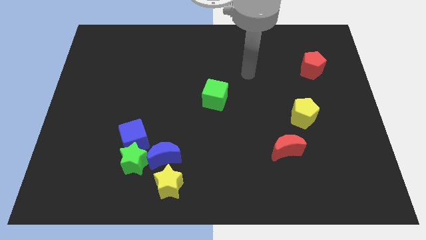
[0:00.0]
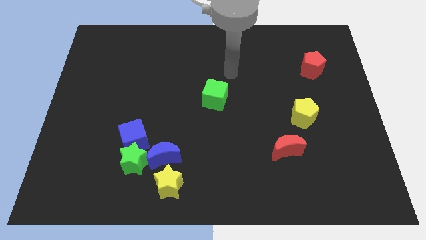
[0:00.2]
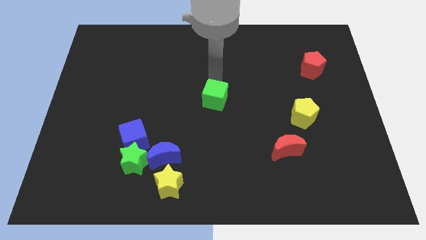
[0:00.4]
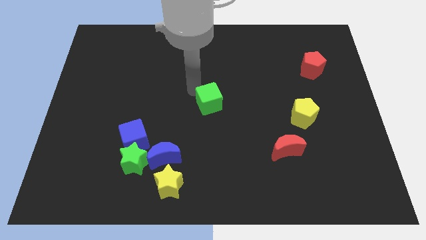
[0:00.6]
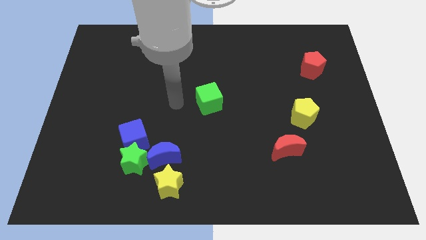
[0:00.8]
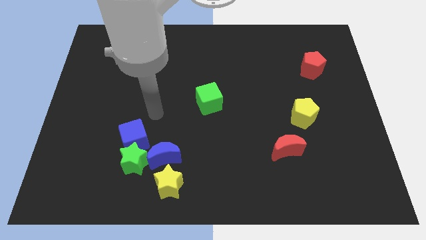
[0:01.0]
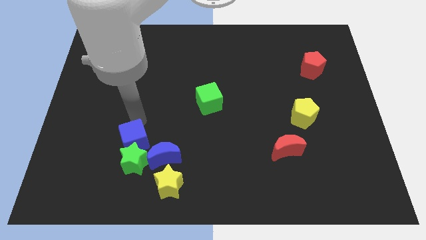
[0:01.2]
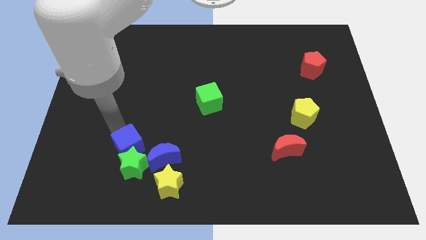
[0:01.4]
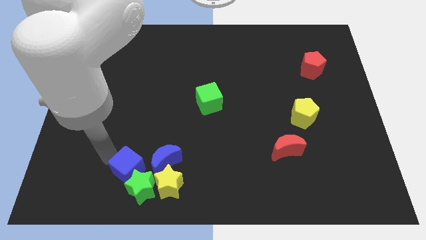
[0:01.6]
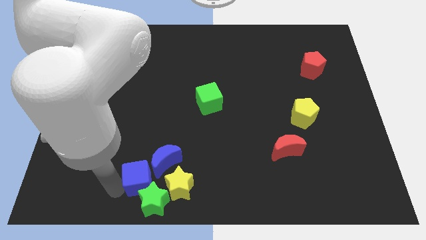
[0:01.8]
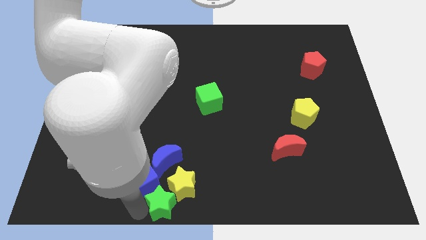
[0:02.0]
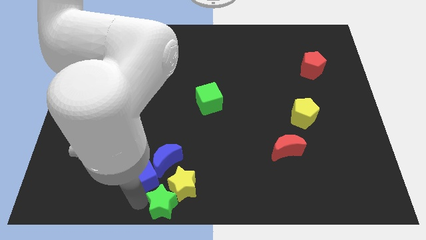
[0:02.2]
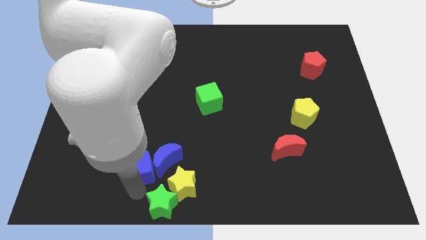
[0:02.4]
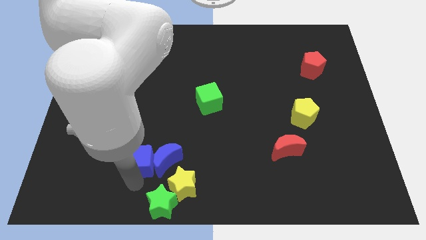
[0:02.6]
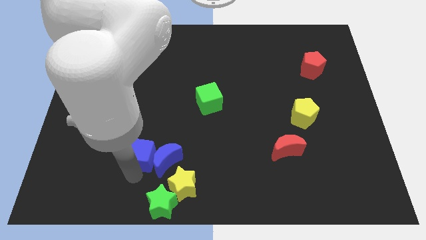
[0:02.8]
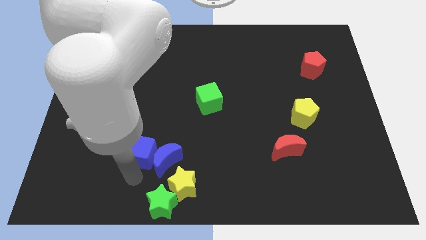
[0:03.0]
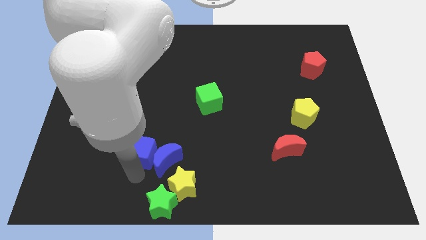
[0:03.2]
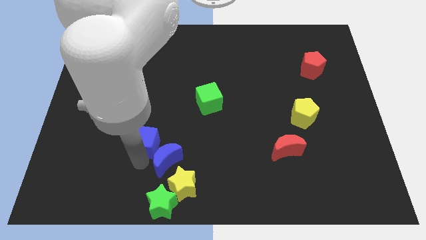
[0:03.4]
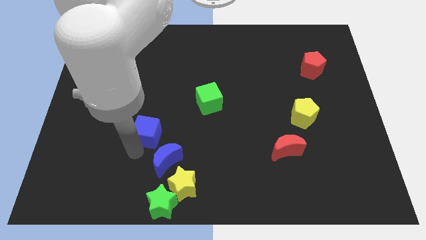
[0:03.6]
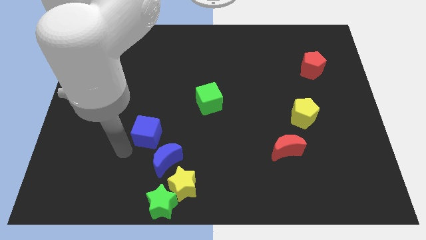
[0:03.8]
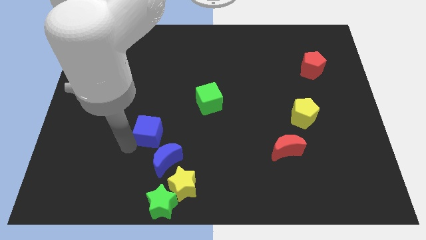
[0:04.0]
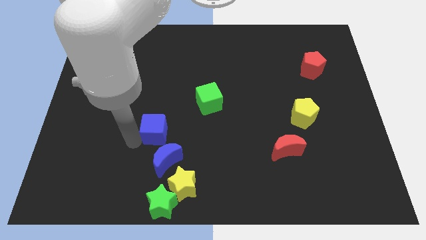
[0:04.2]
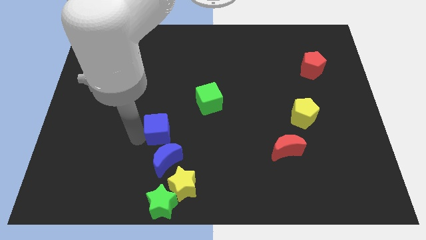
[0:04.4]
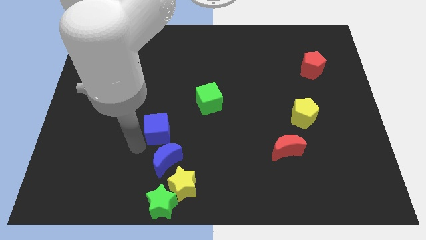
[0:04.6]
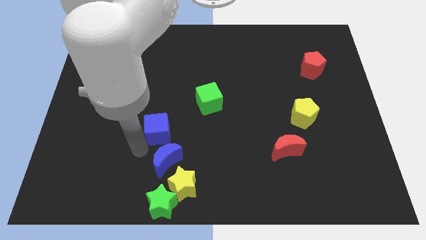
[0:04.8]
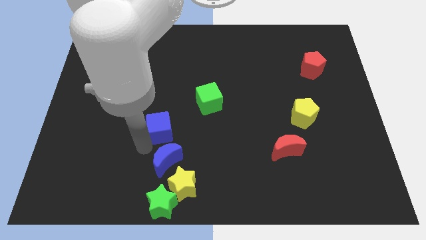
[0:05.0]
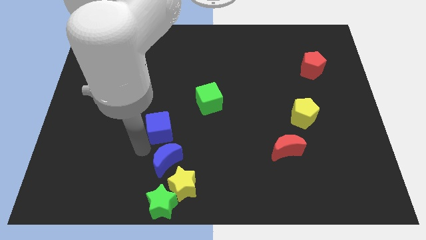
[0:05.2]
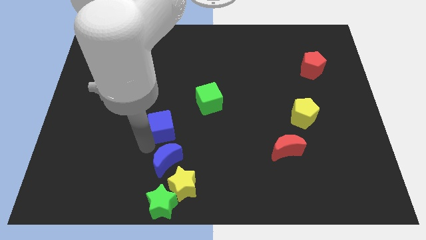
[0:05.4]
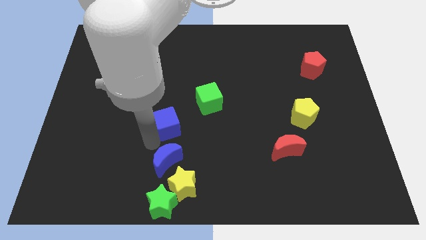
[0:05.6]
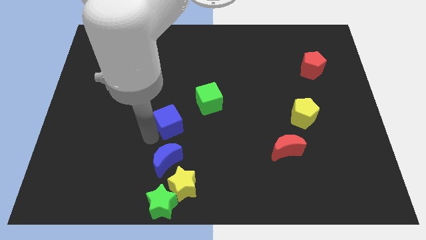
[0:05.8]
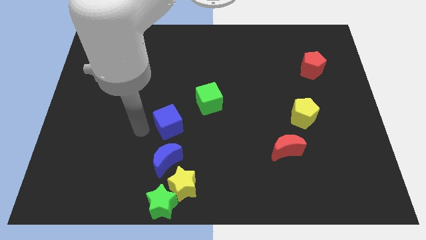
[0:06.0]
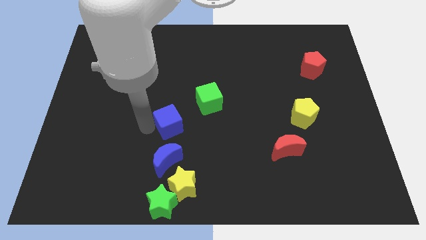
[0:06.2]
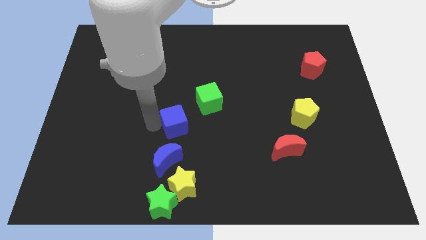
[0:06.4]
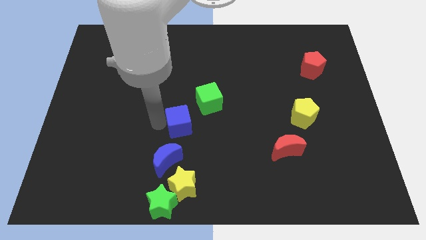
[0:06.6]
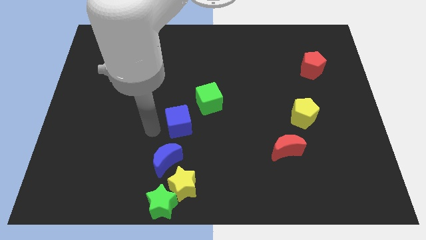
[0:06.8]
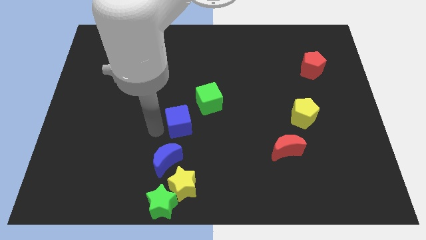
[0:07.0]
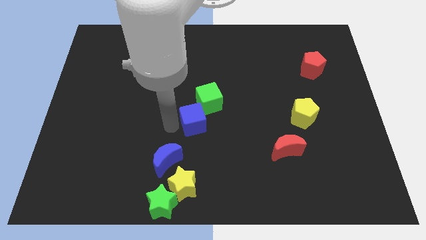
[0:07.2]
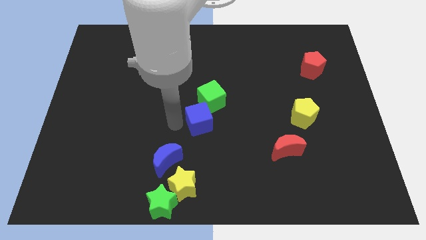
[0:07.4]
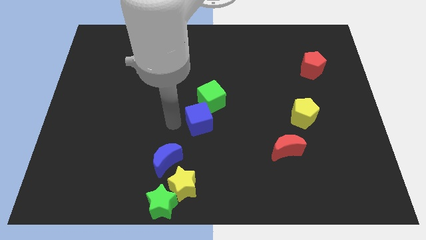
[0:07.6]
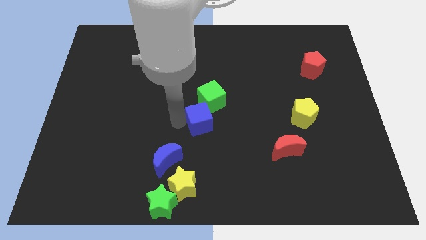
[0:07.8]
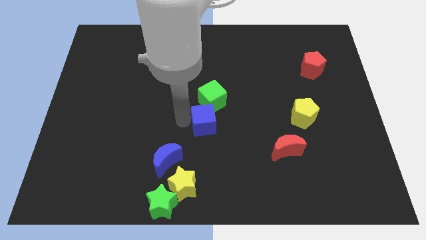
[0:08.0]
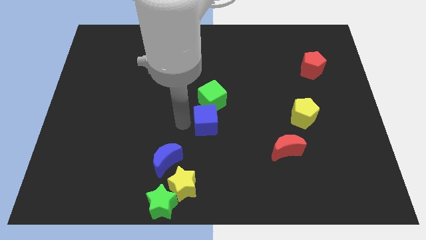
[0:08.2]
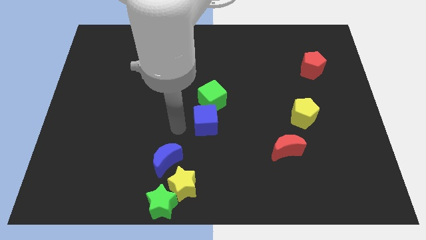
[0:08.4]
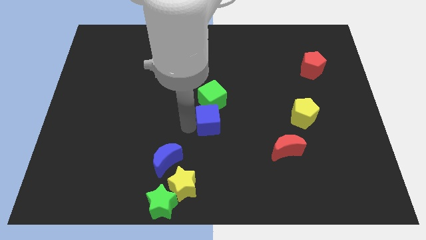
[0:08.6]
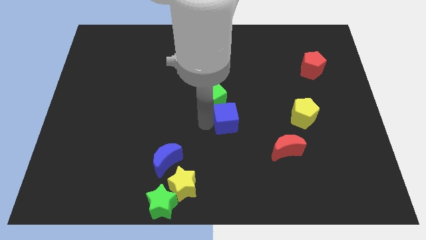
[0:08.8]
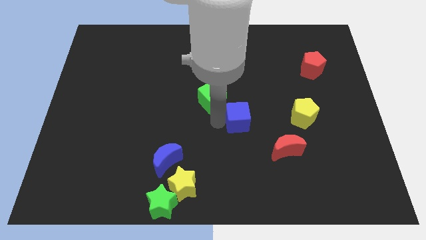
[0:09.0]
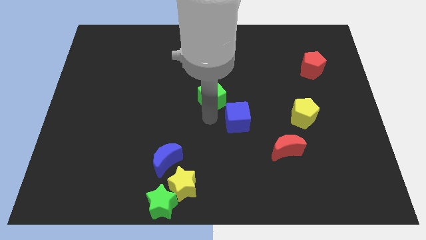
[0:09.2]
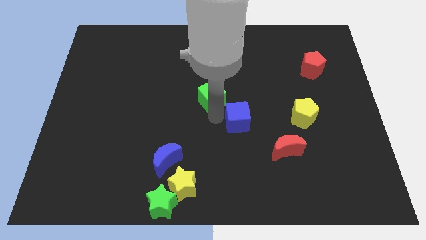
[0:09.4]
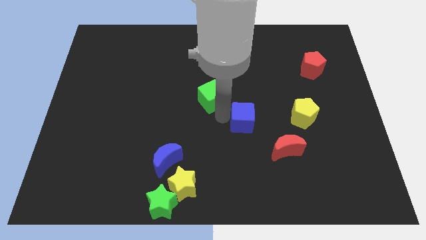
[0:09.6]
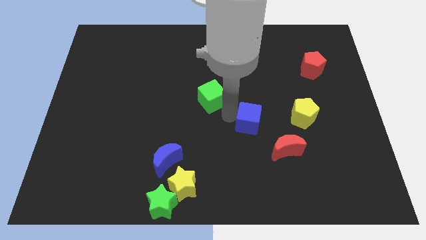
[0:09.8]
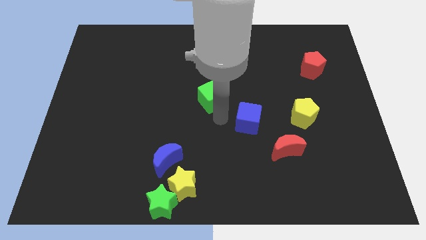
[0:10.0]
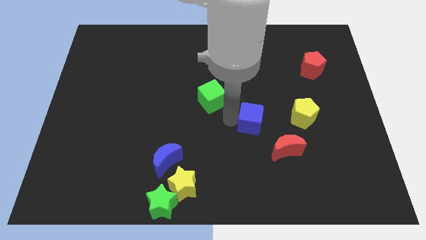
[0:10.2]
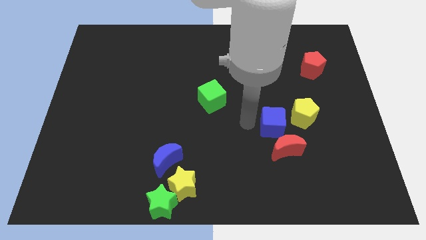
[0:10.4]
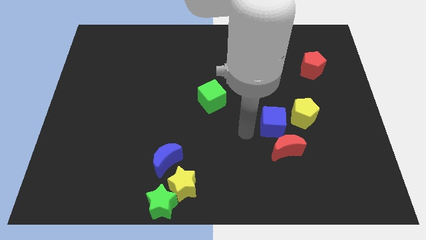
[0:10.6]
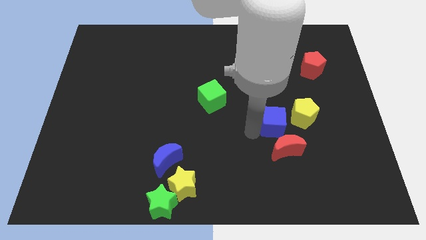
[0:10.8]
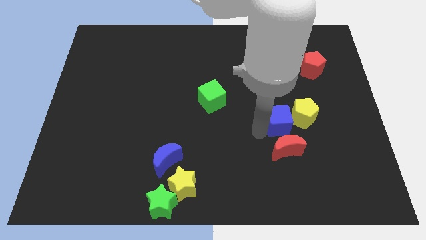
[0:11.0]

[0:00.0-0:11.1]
push the blue cube towards the yellow pentagon
